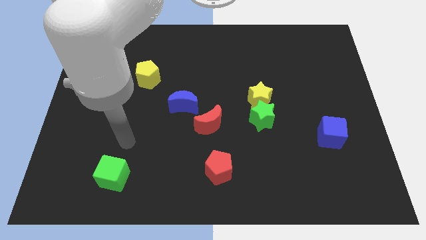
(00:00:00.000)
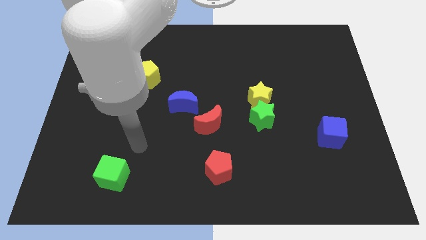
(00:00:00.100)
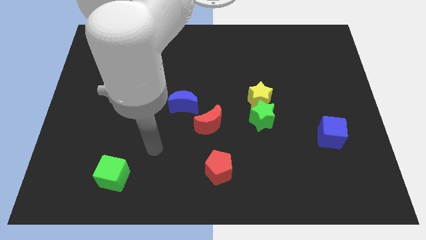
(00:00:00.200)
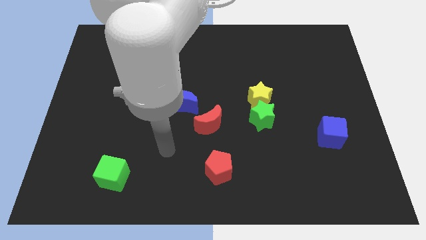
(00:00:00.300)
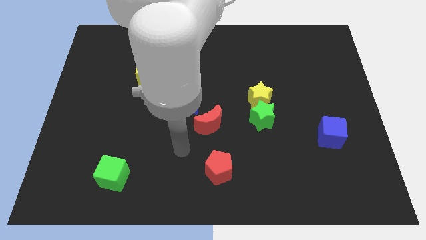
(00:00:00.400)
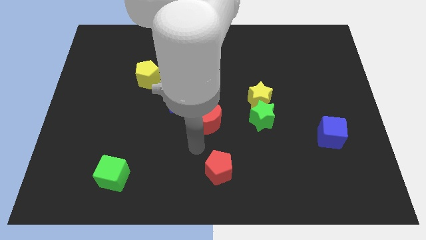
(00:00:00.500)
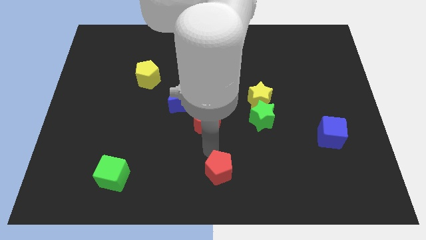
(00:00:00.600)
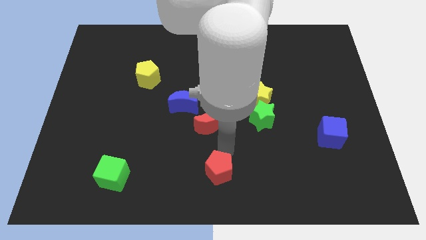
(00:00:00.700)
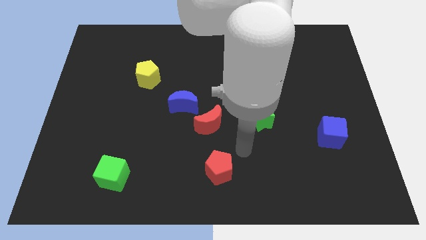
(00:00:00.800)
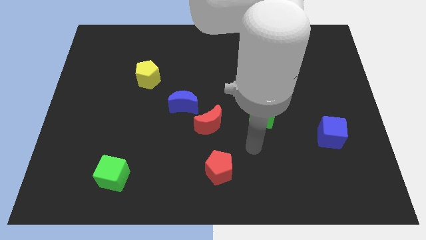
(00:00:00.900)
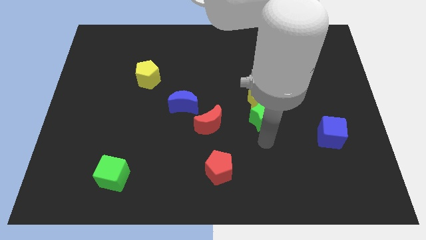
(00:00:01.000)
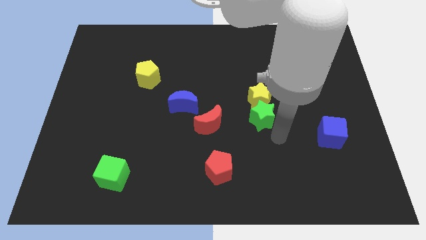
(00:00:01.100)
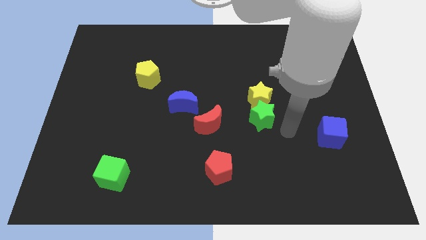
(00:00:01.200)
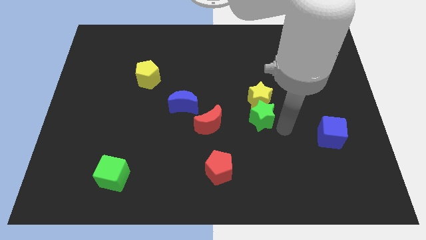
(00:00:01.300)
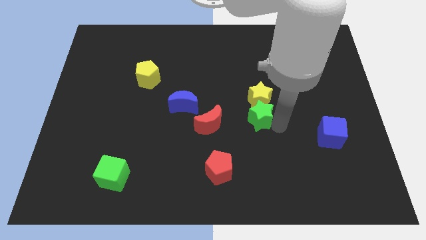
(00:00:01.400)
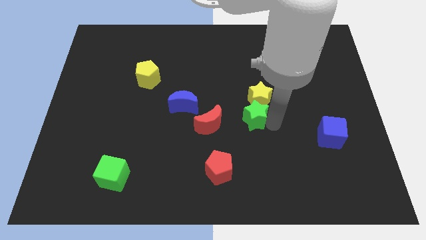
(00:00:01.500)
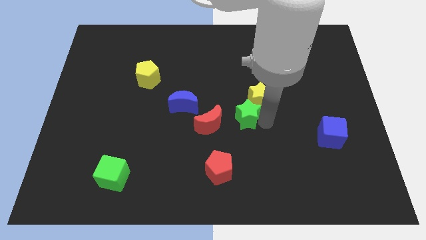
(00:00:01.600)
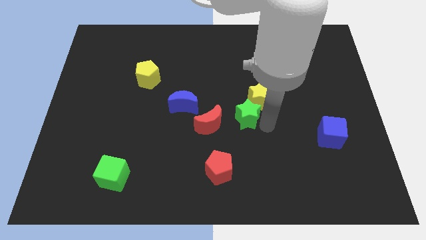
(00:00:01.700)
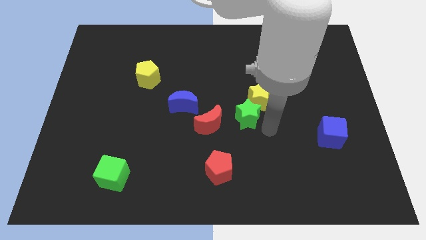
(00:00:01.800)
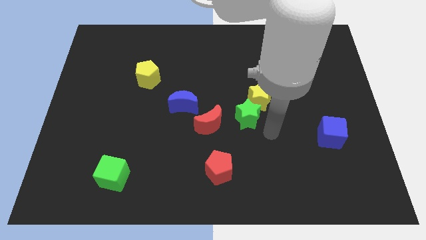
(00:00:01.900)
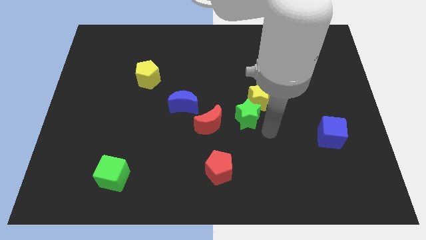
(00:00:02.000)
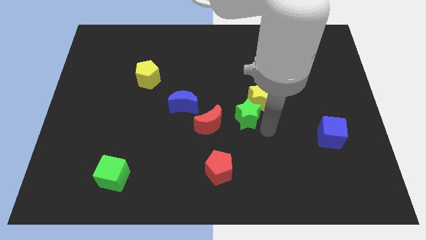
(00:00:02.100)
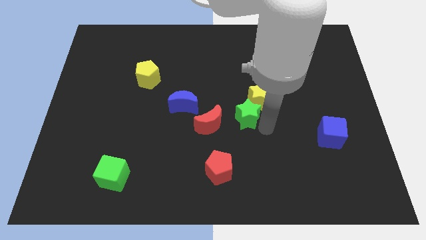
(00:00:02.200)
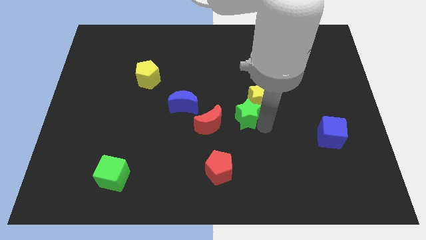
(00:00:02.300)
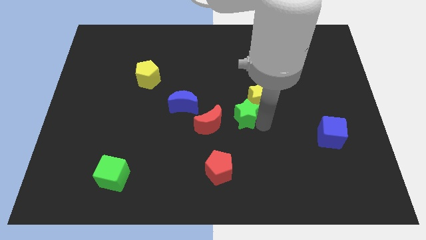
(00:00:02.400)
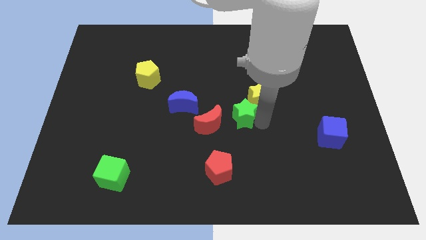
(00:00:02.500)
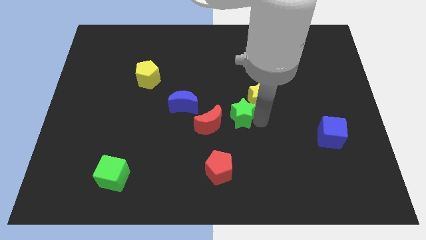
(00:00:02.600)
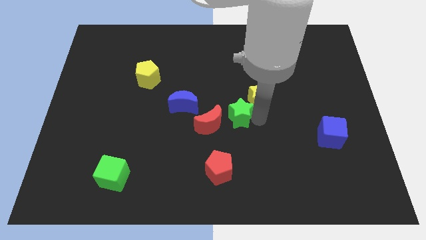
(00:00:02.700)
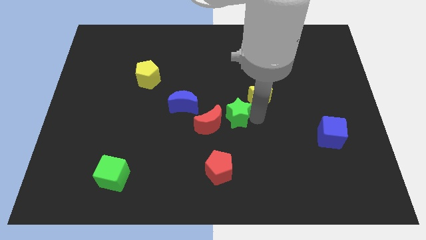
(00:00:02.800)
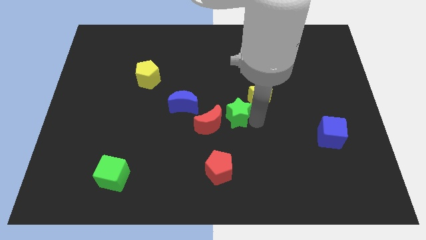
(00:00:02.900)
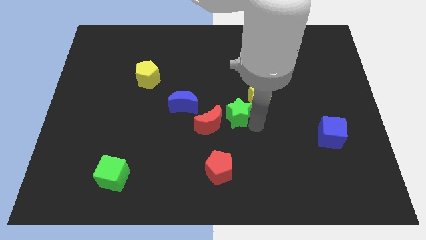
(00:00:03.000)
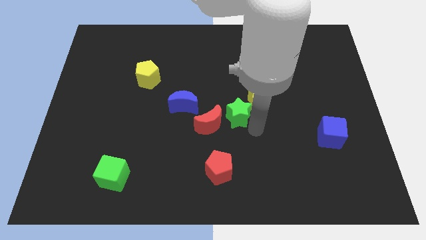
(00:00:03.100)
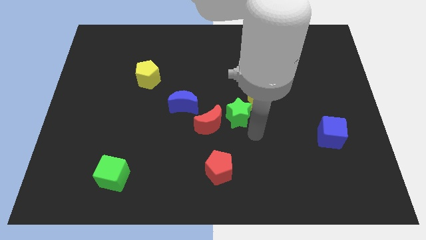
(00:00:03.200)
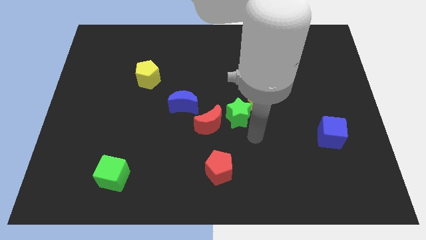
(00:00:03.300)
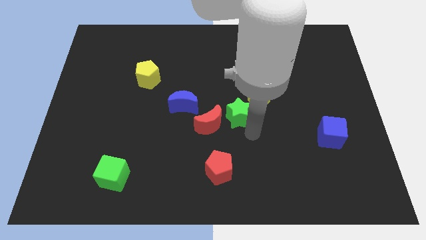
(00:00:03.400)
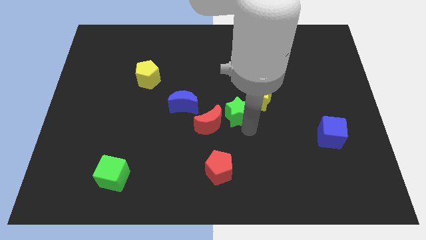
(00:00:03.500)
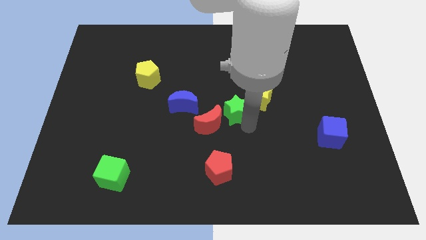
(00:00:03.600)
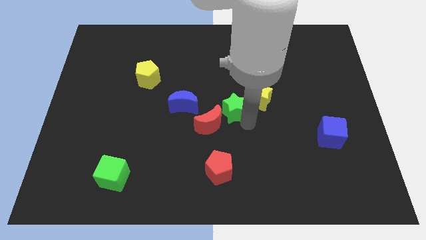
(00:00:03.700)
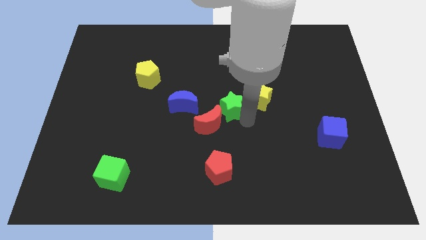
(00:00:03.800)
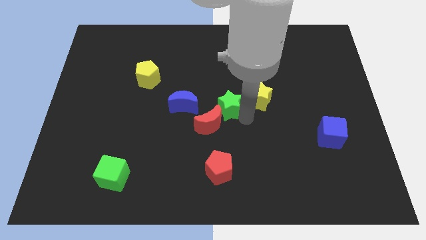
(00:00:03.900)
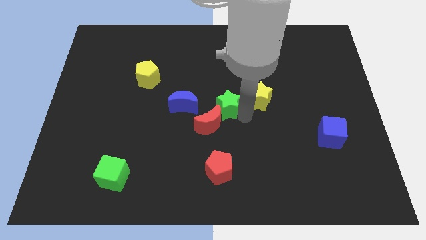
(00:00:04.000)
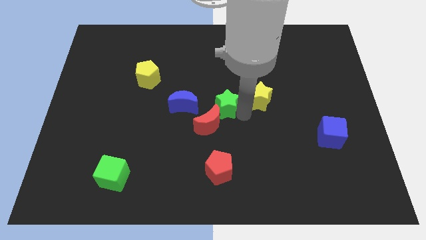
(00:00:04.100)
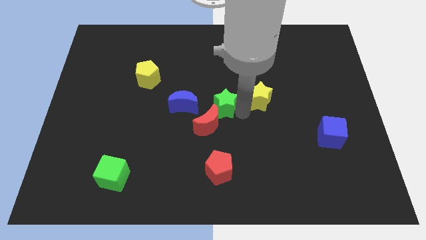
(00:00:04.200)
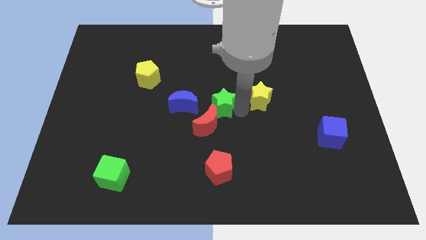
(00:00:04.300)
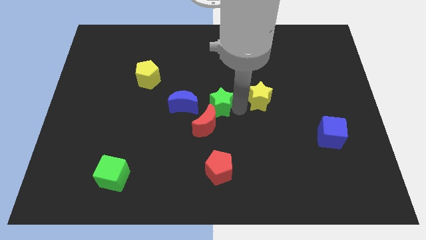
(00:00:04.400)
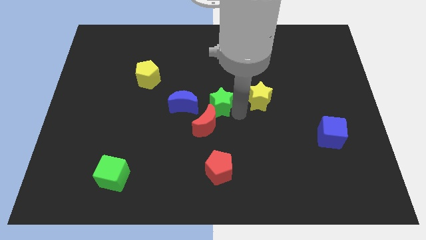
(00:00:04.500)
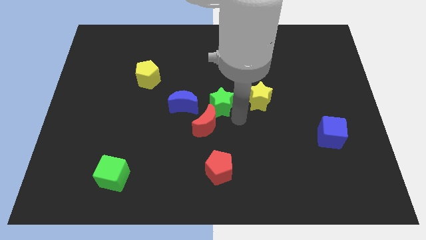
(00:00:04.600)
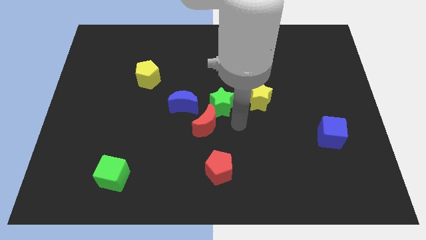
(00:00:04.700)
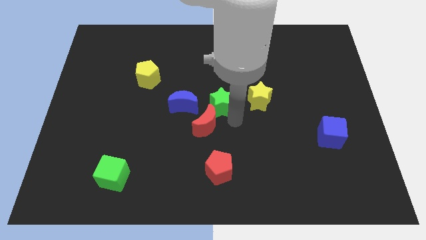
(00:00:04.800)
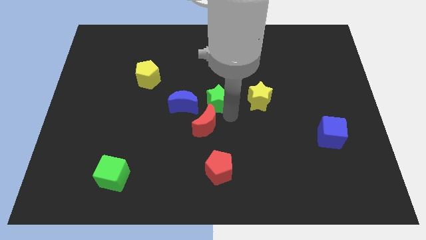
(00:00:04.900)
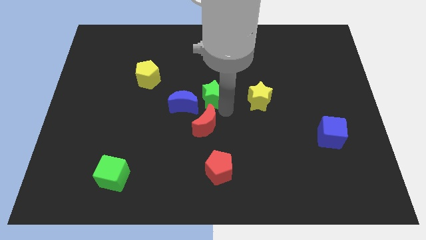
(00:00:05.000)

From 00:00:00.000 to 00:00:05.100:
put the green star diagonally up and to the right of the blue moon

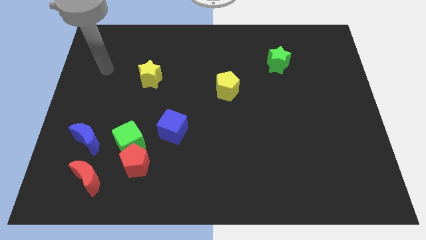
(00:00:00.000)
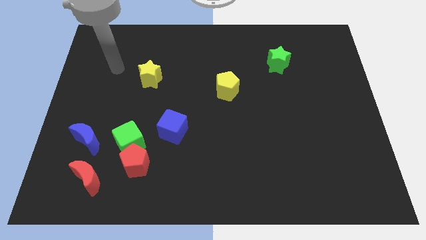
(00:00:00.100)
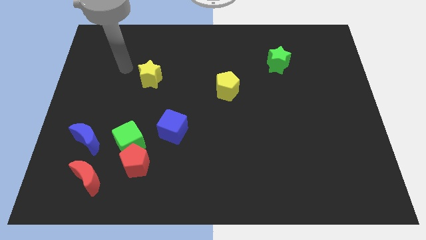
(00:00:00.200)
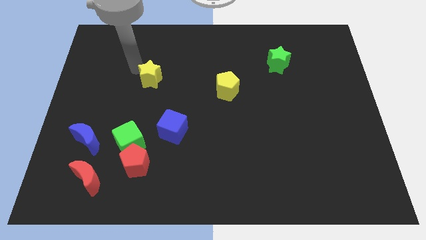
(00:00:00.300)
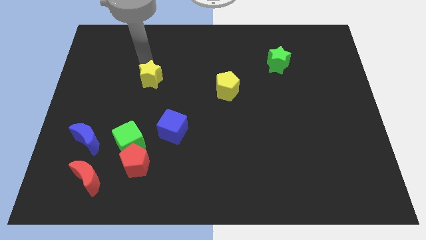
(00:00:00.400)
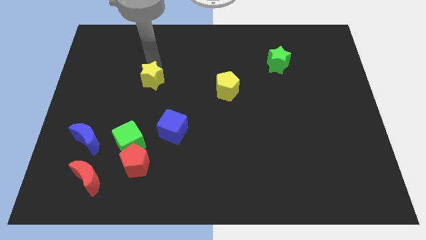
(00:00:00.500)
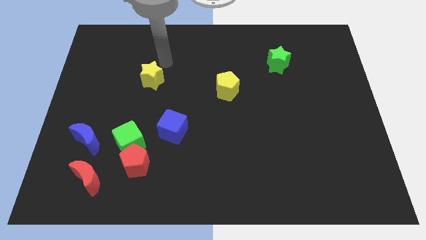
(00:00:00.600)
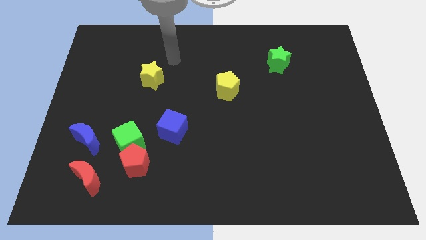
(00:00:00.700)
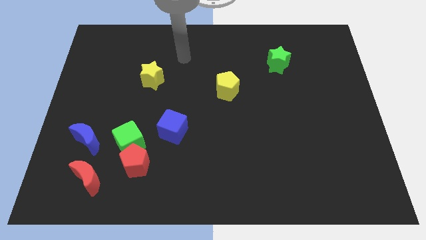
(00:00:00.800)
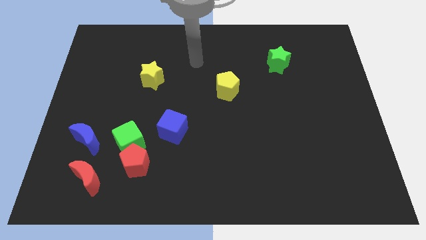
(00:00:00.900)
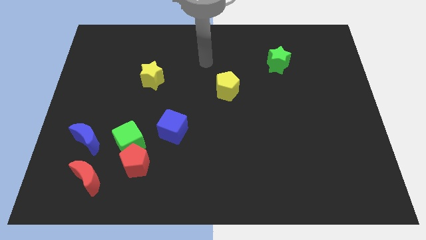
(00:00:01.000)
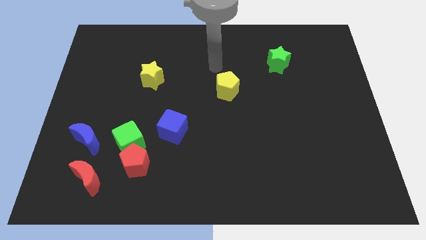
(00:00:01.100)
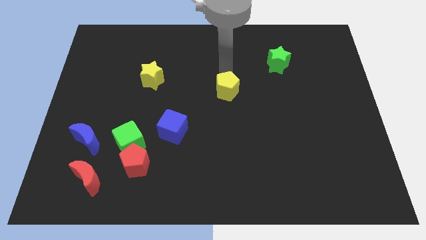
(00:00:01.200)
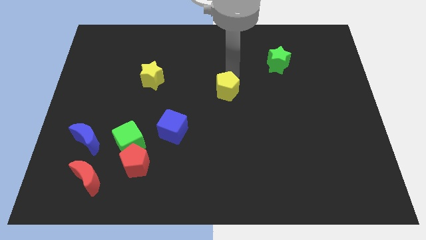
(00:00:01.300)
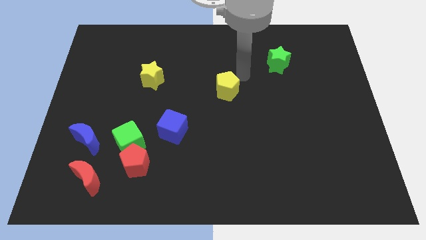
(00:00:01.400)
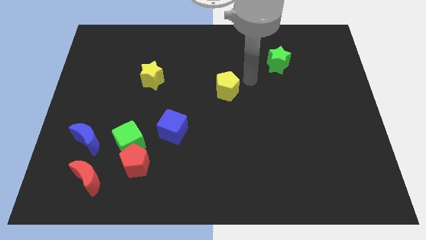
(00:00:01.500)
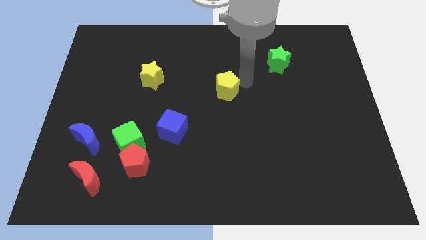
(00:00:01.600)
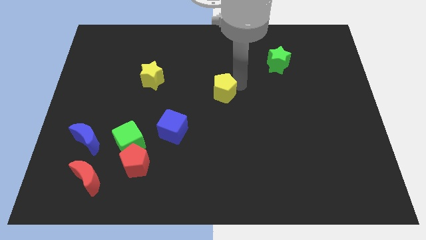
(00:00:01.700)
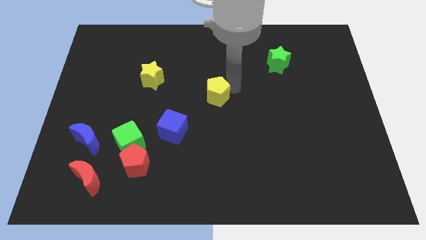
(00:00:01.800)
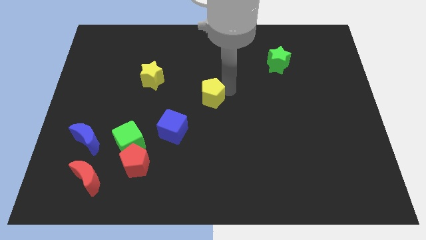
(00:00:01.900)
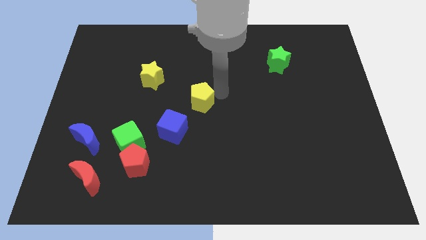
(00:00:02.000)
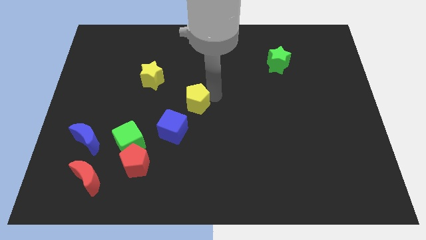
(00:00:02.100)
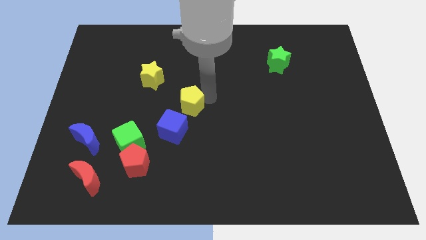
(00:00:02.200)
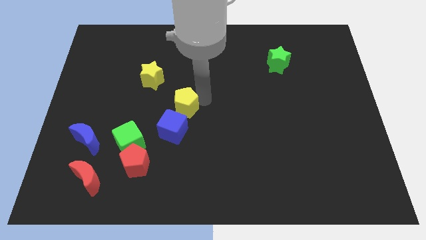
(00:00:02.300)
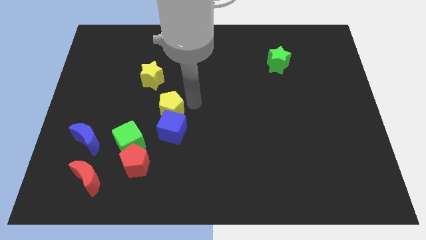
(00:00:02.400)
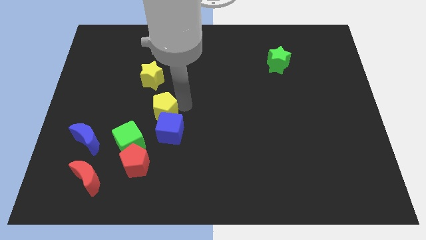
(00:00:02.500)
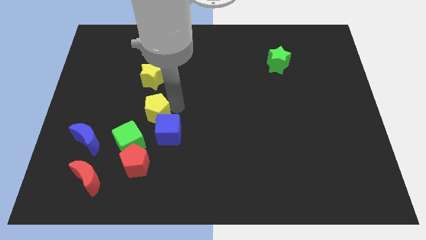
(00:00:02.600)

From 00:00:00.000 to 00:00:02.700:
move the yellow pentagon above the red pentagon
